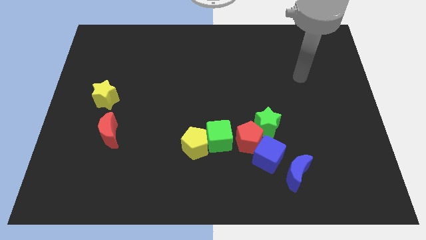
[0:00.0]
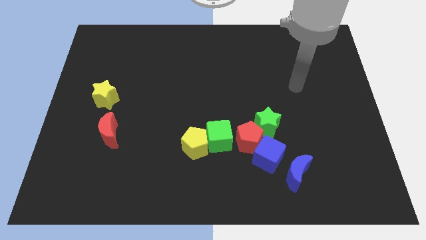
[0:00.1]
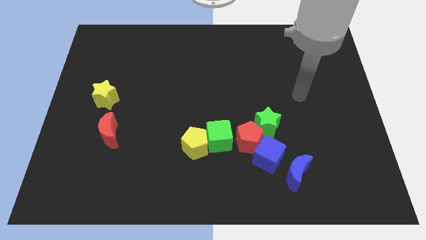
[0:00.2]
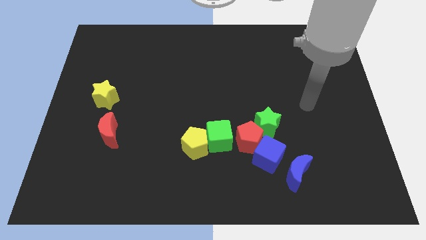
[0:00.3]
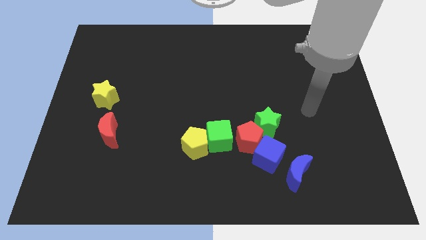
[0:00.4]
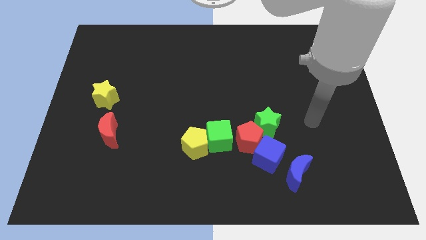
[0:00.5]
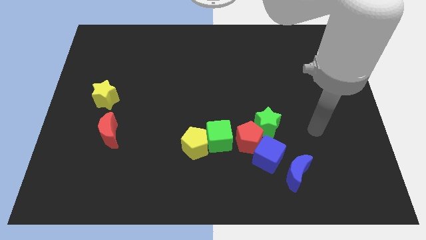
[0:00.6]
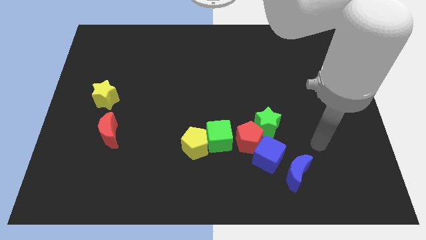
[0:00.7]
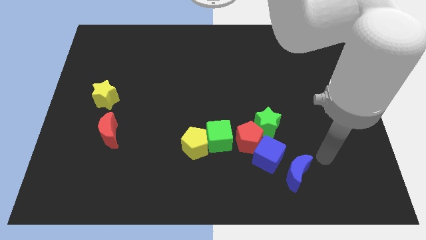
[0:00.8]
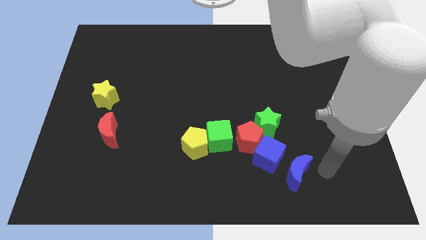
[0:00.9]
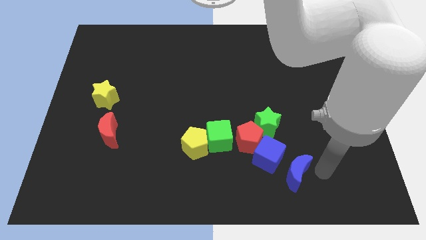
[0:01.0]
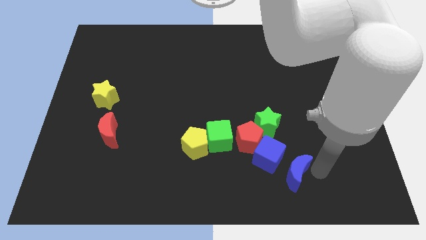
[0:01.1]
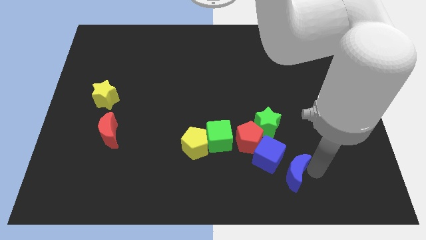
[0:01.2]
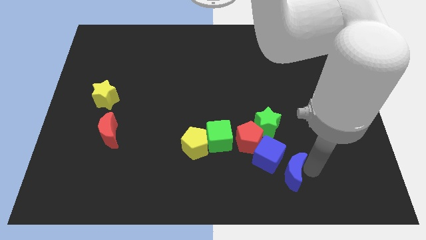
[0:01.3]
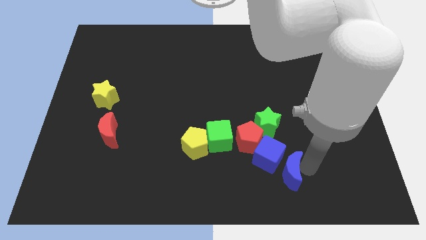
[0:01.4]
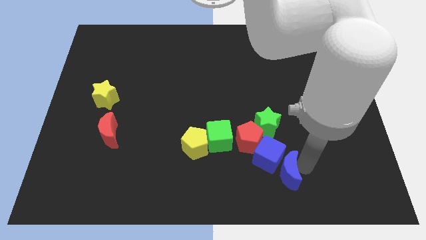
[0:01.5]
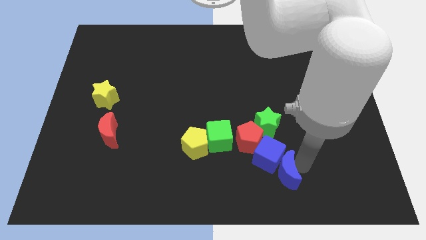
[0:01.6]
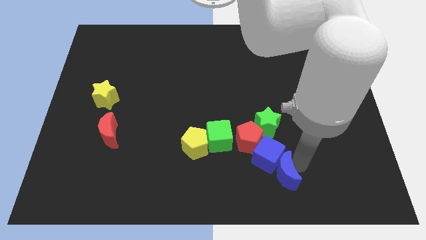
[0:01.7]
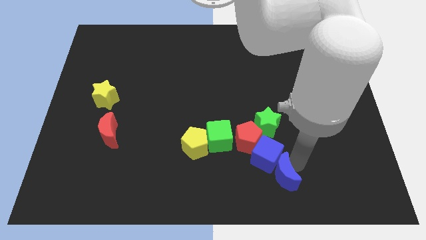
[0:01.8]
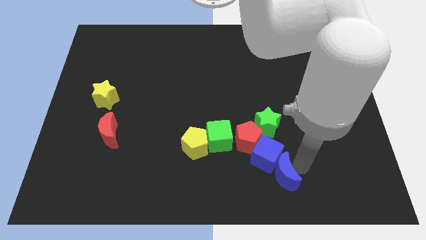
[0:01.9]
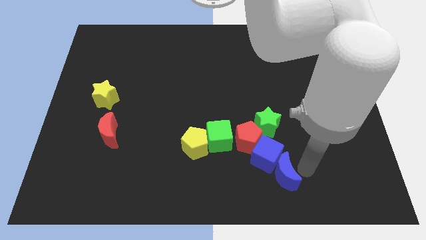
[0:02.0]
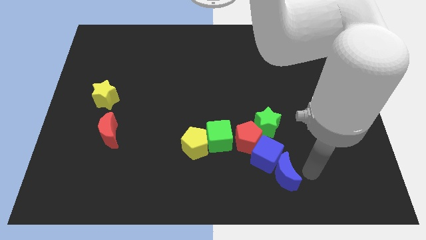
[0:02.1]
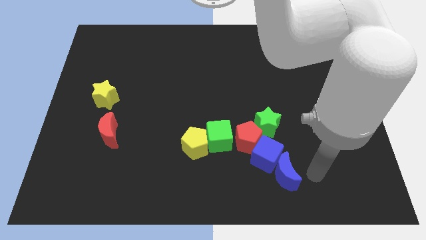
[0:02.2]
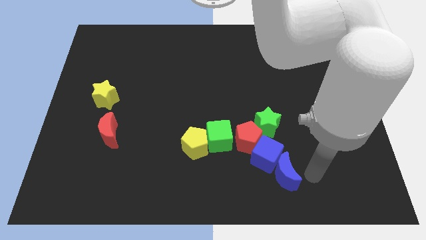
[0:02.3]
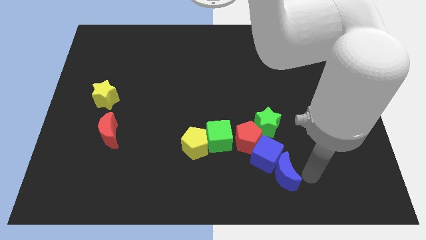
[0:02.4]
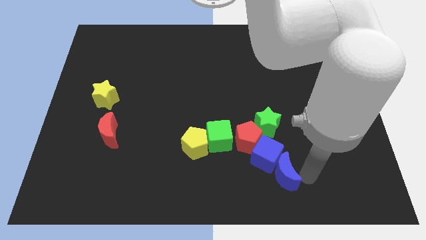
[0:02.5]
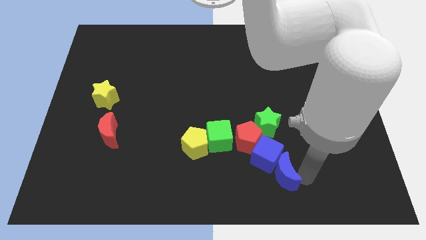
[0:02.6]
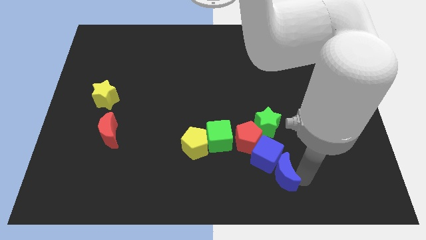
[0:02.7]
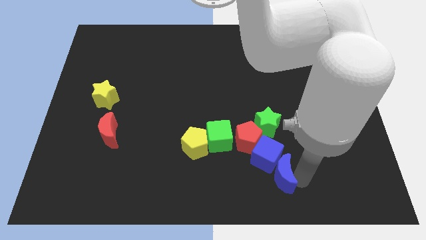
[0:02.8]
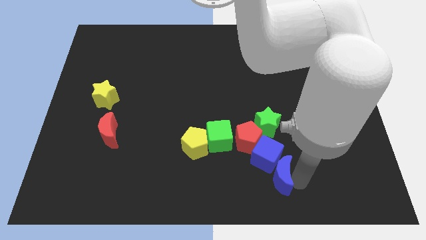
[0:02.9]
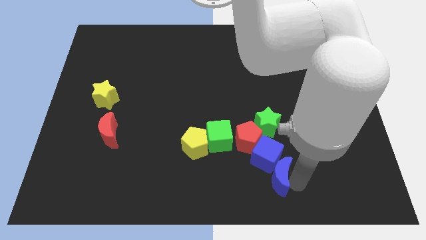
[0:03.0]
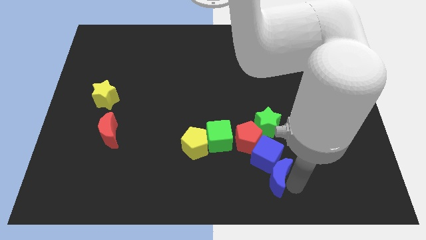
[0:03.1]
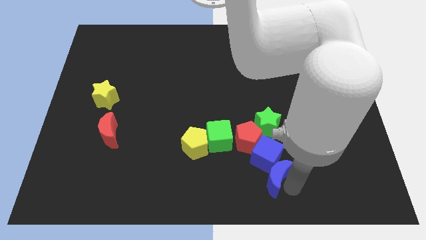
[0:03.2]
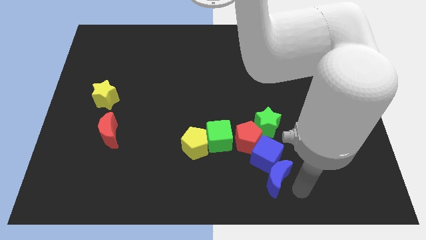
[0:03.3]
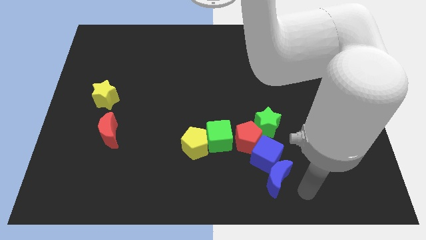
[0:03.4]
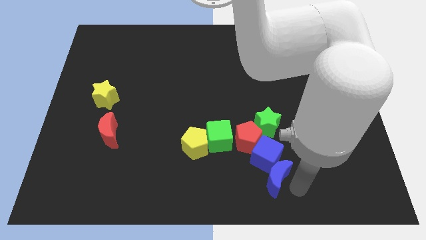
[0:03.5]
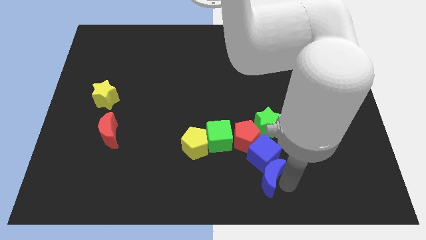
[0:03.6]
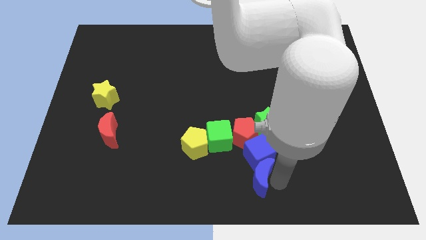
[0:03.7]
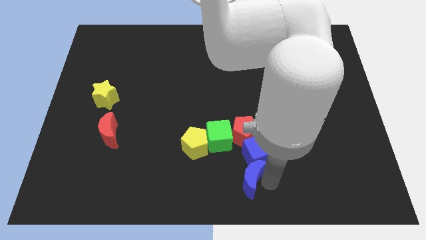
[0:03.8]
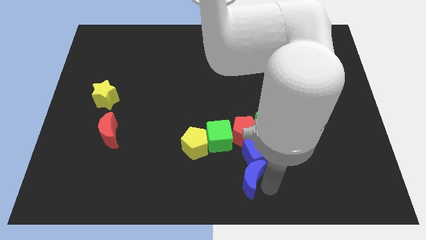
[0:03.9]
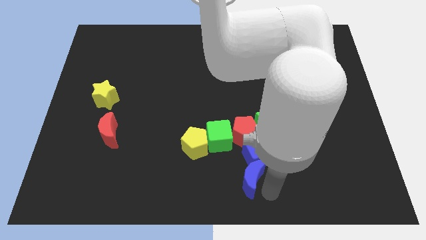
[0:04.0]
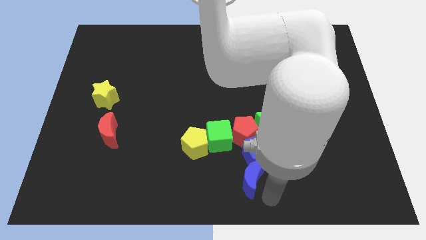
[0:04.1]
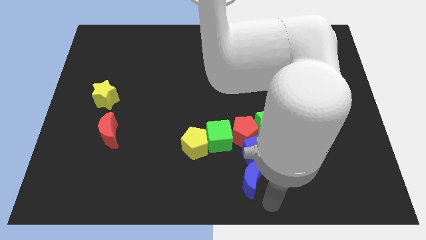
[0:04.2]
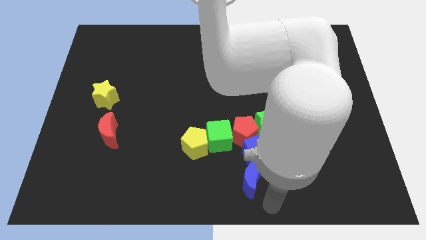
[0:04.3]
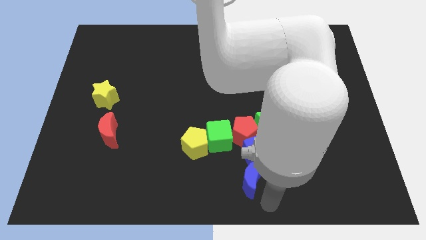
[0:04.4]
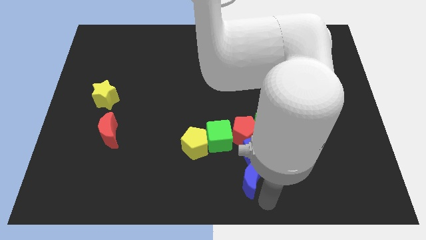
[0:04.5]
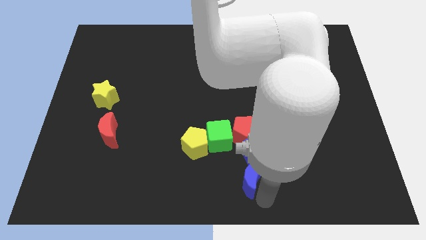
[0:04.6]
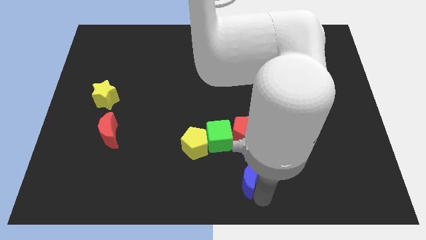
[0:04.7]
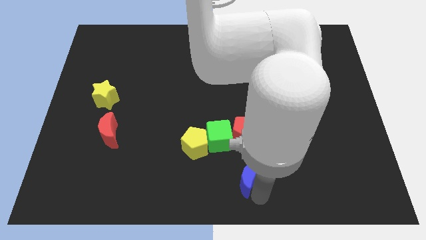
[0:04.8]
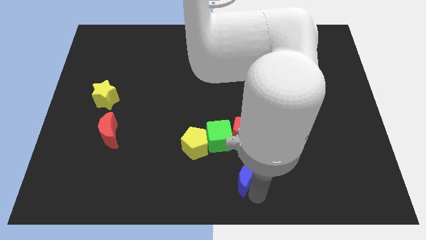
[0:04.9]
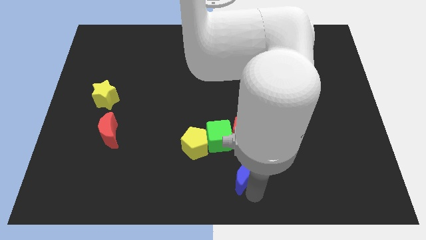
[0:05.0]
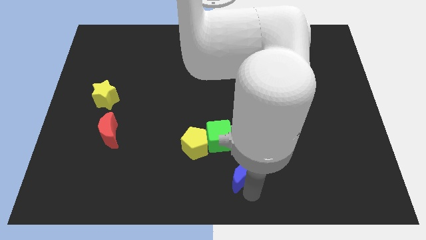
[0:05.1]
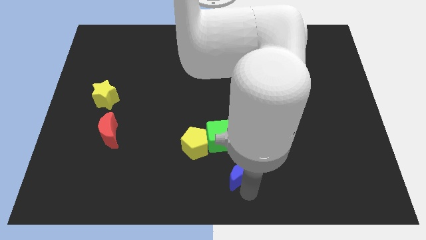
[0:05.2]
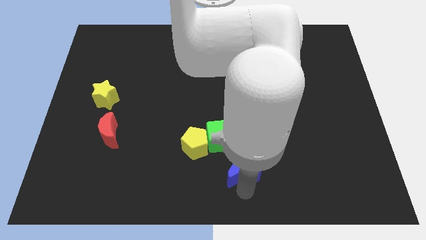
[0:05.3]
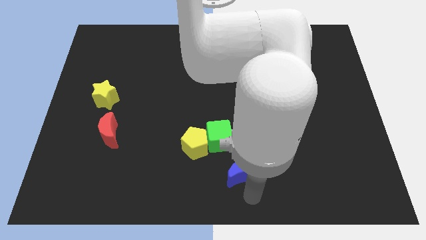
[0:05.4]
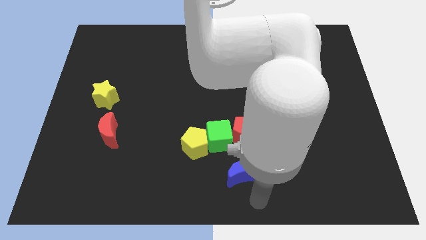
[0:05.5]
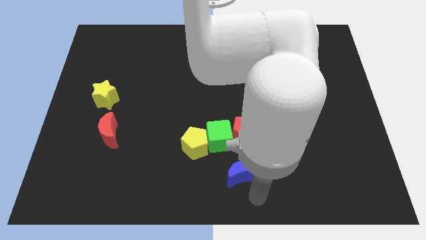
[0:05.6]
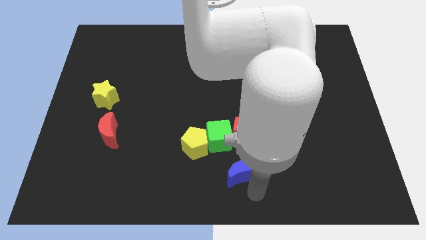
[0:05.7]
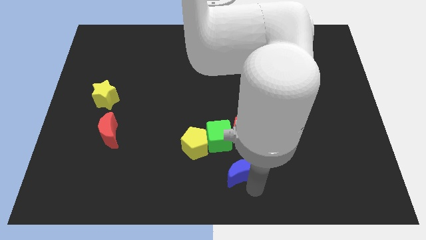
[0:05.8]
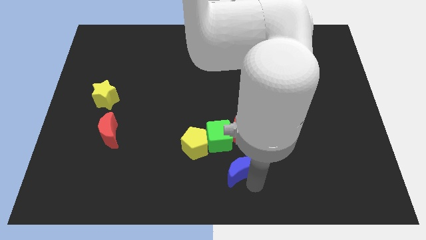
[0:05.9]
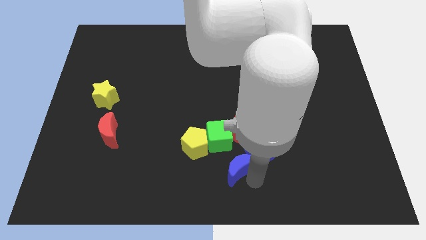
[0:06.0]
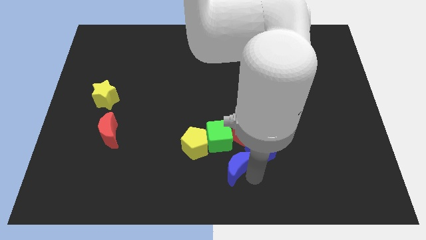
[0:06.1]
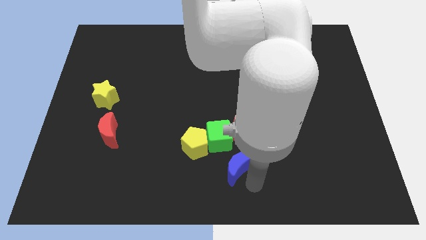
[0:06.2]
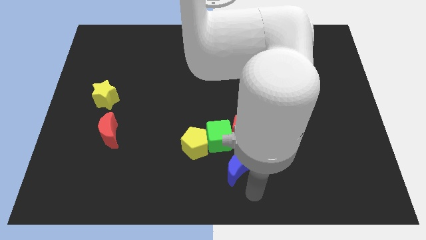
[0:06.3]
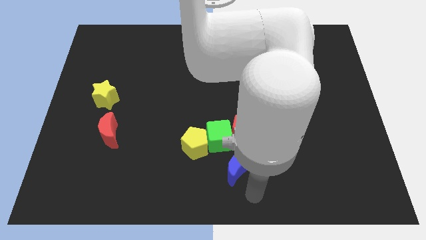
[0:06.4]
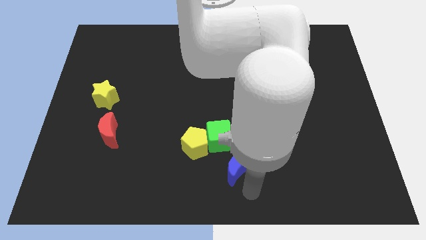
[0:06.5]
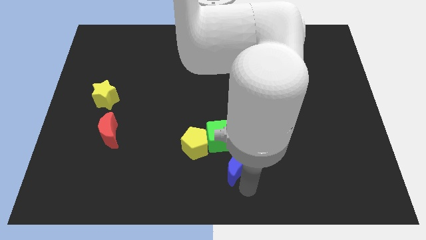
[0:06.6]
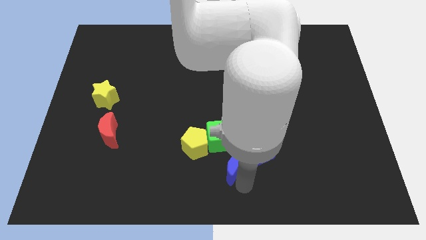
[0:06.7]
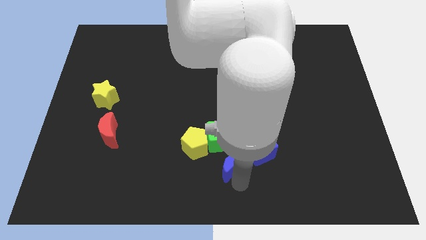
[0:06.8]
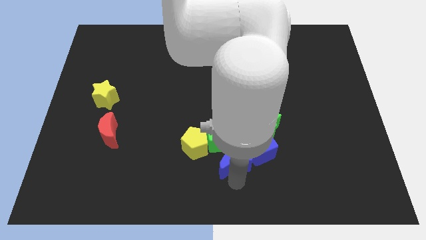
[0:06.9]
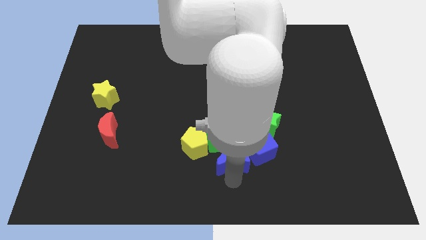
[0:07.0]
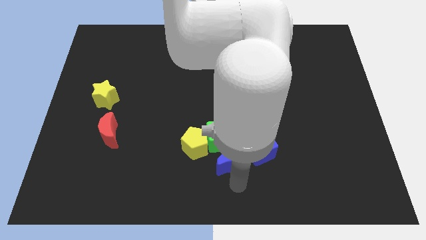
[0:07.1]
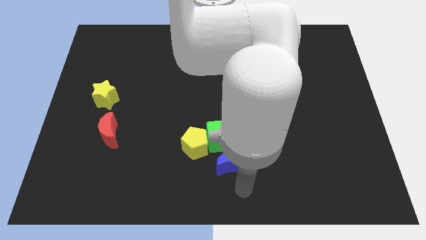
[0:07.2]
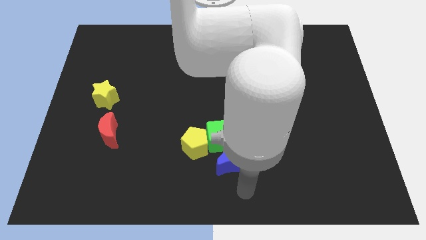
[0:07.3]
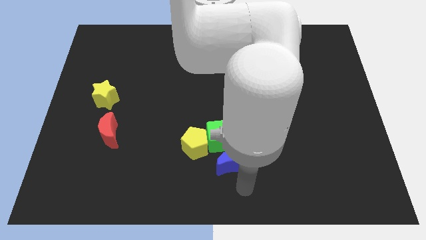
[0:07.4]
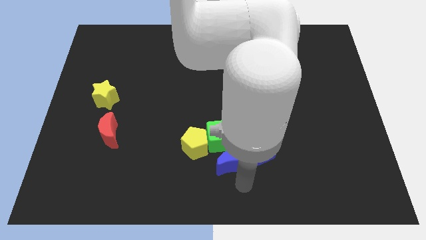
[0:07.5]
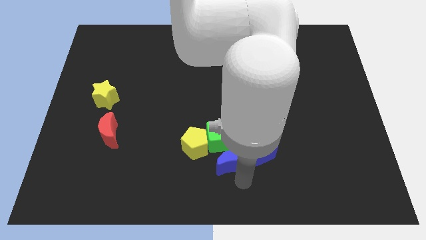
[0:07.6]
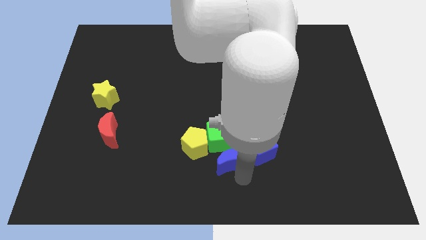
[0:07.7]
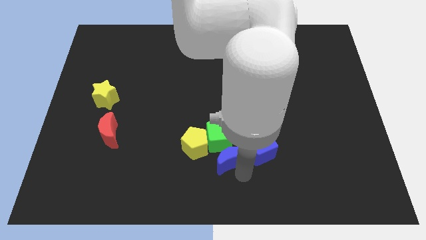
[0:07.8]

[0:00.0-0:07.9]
put the blue moon next to the green cube
